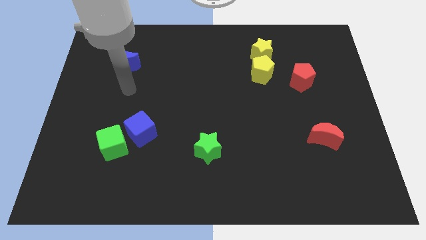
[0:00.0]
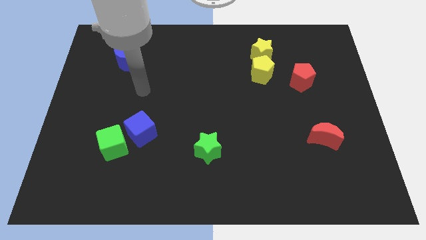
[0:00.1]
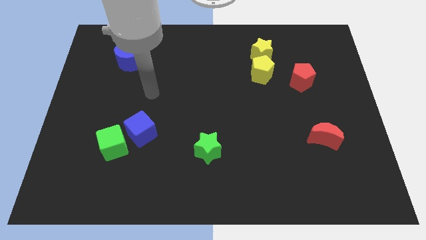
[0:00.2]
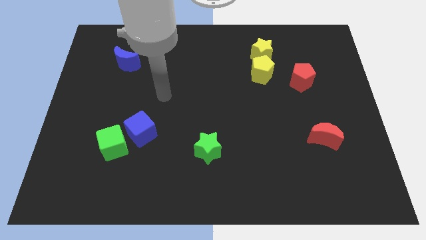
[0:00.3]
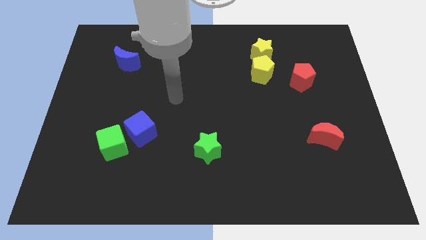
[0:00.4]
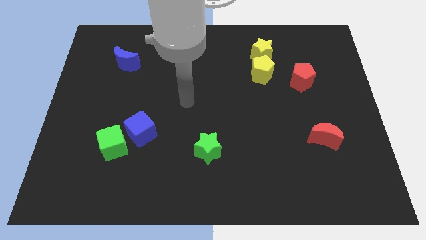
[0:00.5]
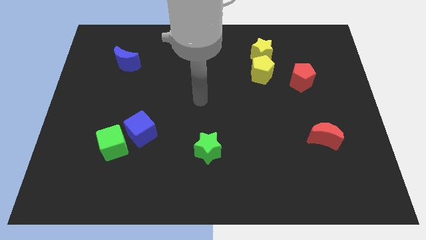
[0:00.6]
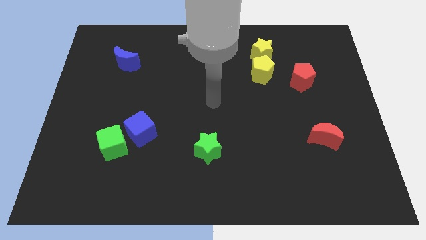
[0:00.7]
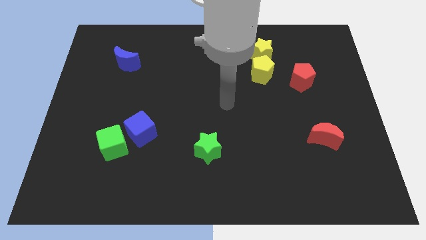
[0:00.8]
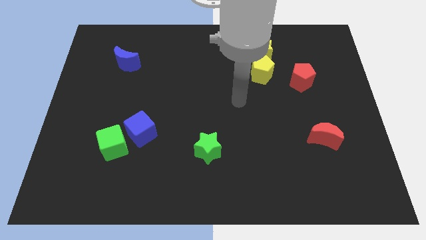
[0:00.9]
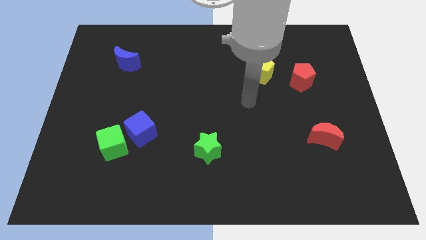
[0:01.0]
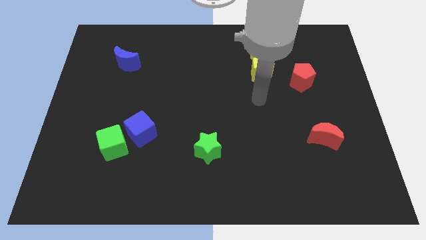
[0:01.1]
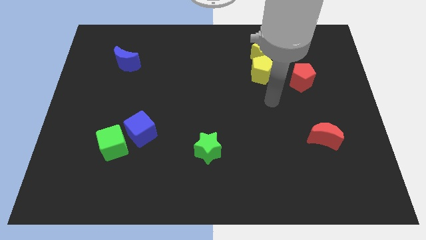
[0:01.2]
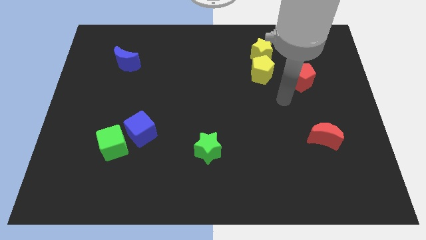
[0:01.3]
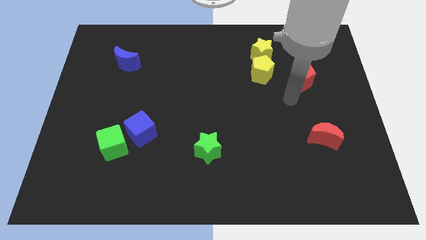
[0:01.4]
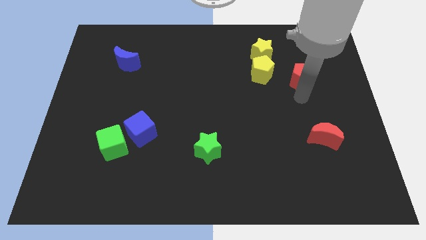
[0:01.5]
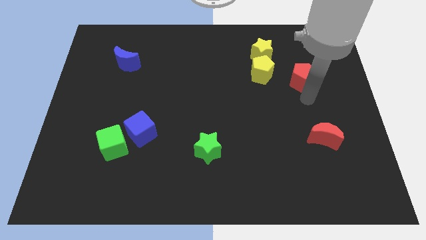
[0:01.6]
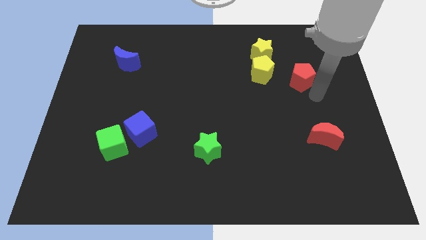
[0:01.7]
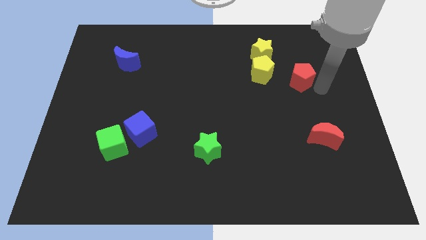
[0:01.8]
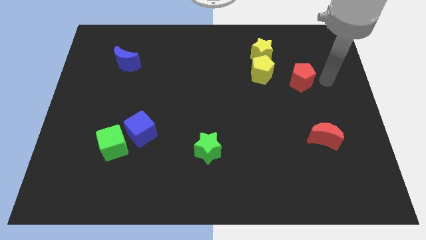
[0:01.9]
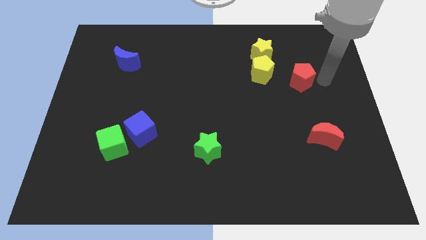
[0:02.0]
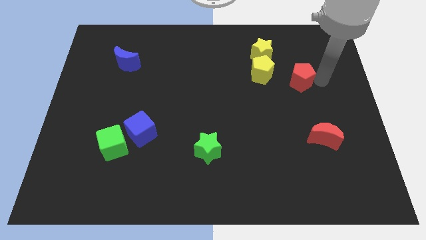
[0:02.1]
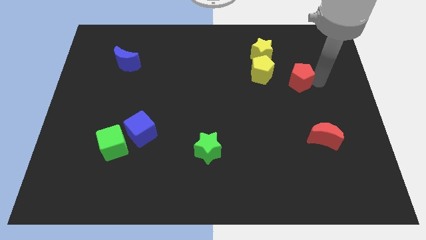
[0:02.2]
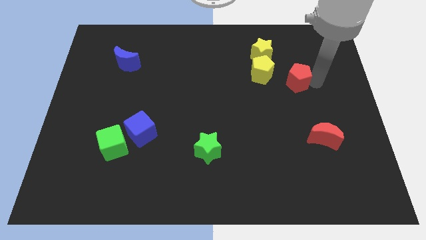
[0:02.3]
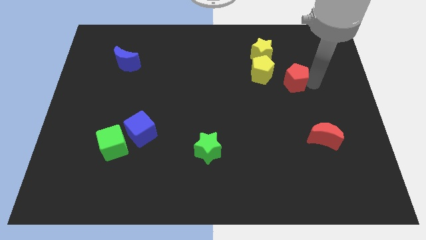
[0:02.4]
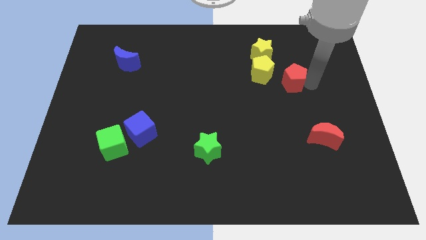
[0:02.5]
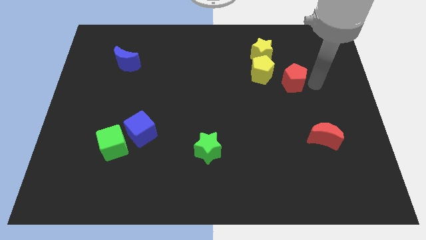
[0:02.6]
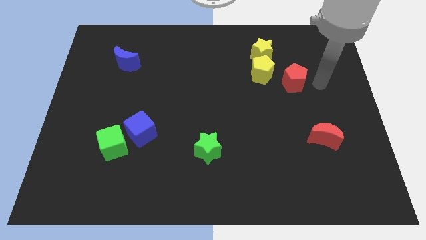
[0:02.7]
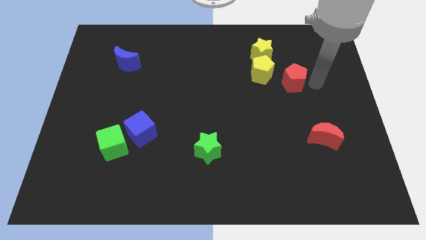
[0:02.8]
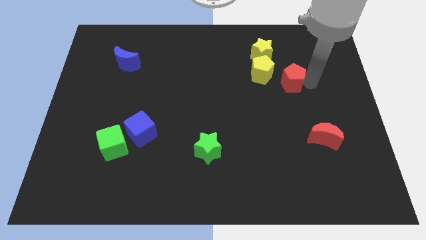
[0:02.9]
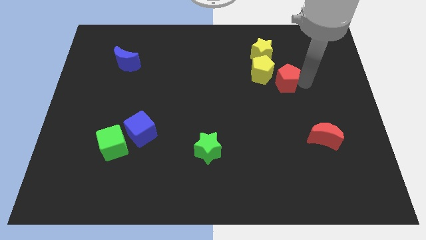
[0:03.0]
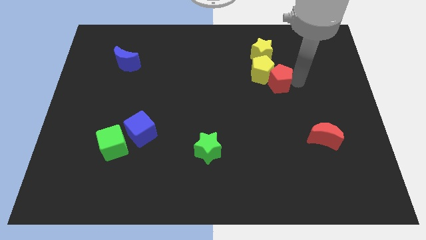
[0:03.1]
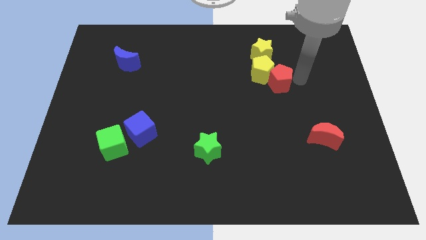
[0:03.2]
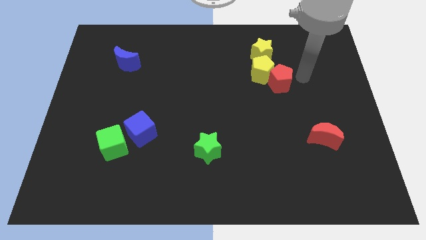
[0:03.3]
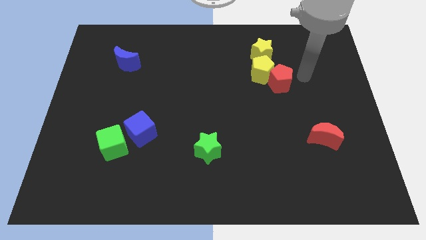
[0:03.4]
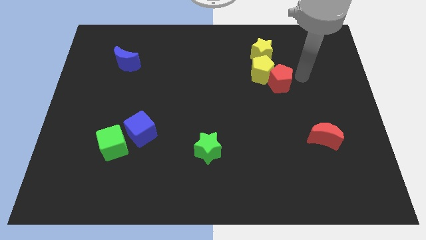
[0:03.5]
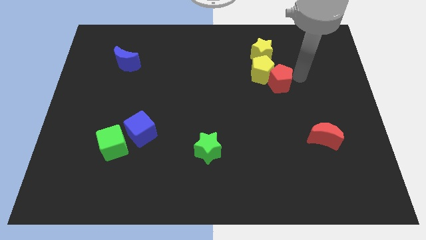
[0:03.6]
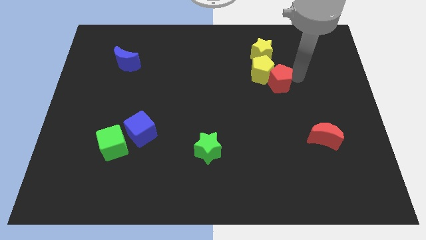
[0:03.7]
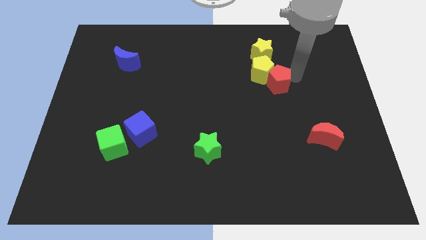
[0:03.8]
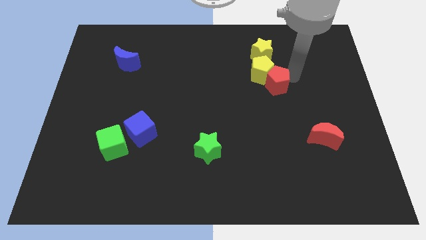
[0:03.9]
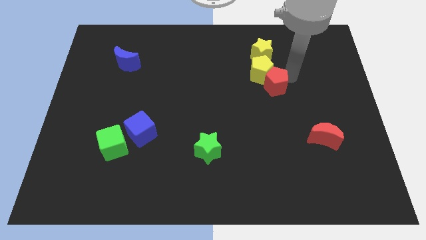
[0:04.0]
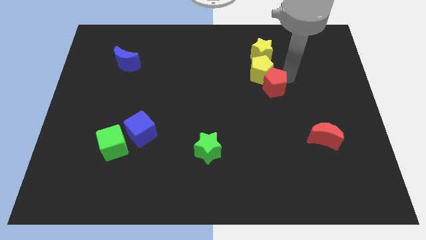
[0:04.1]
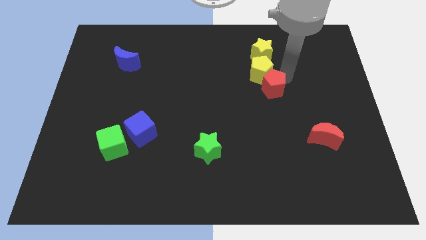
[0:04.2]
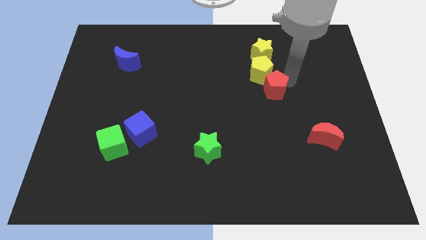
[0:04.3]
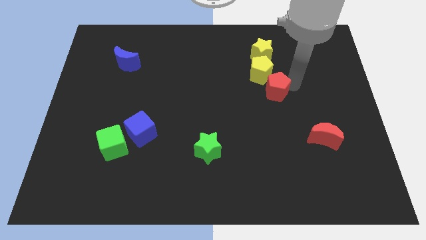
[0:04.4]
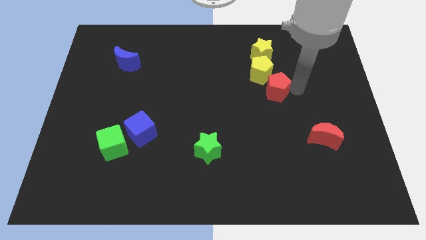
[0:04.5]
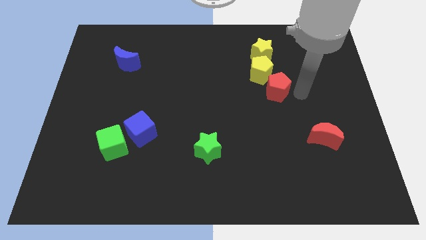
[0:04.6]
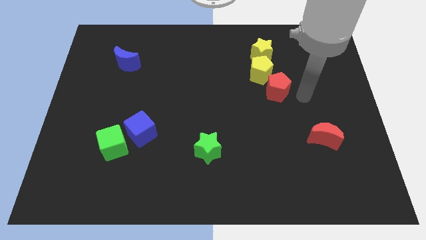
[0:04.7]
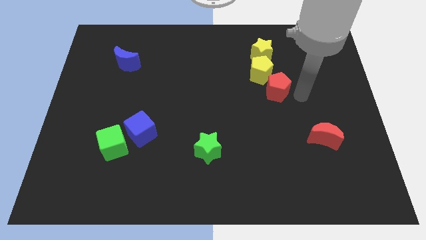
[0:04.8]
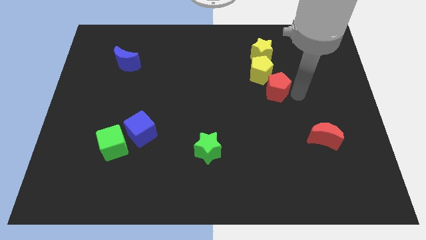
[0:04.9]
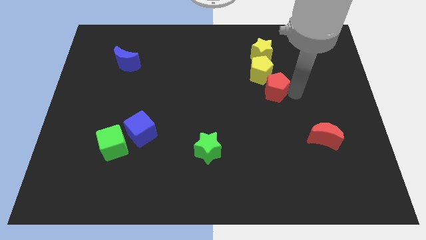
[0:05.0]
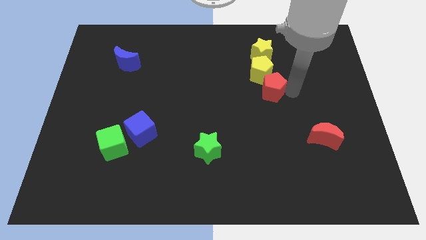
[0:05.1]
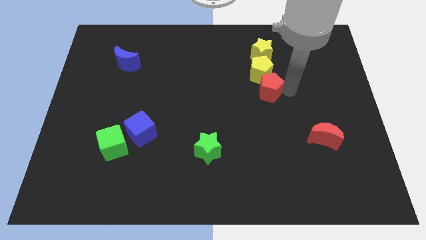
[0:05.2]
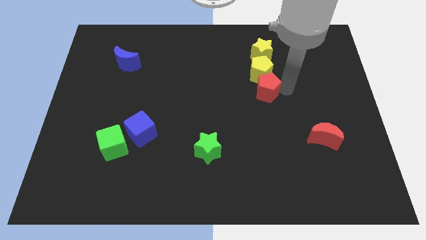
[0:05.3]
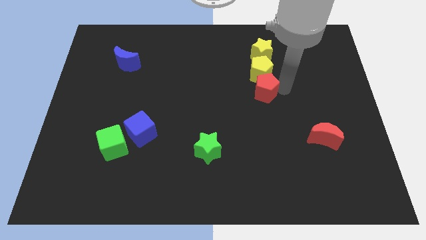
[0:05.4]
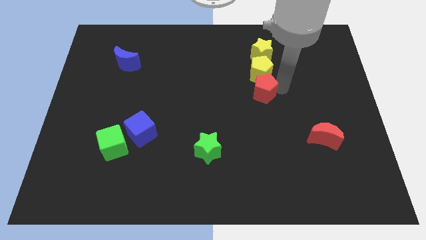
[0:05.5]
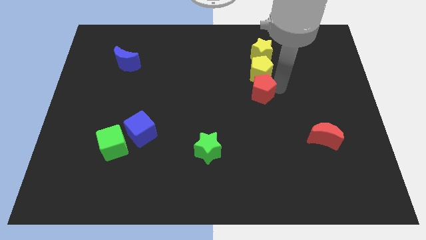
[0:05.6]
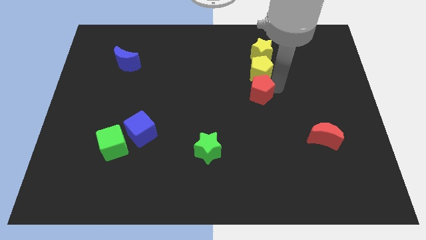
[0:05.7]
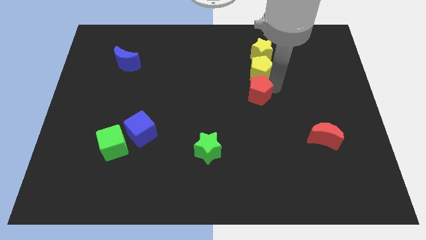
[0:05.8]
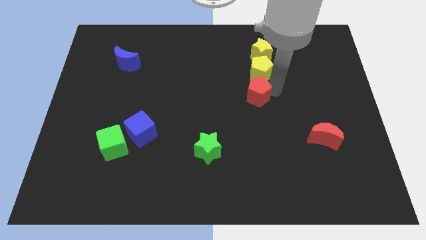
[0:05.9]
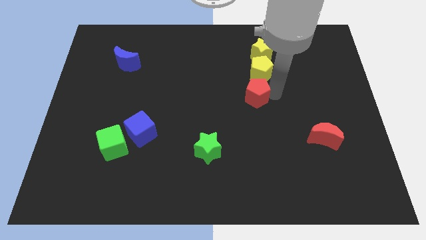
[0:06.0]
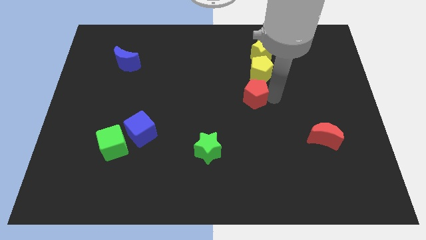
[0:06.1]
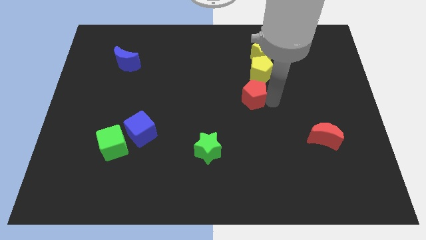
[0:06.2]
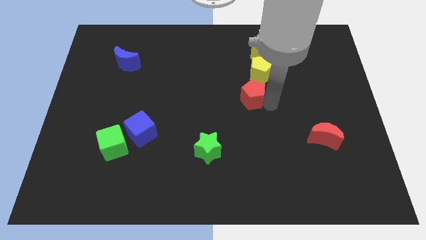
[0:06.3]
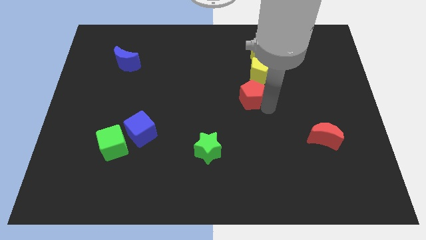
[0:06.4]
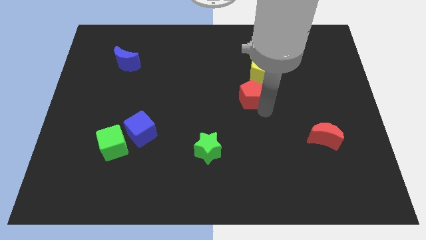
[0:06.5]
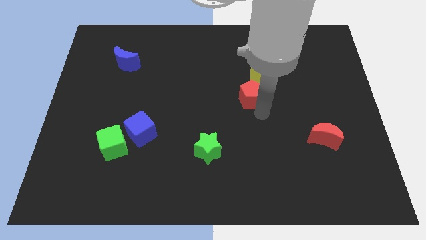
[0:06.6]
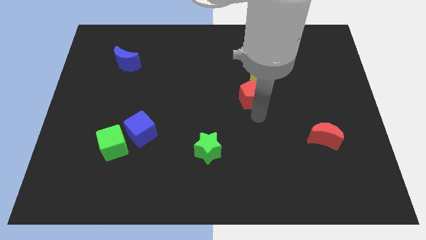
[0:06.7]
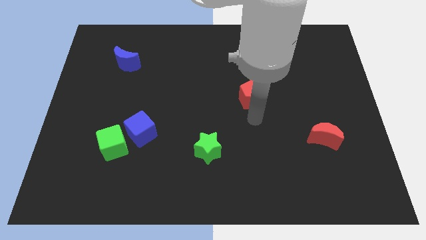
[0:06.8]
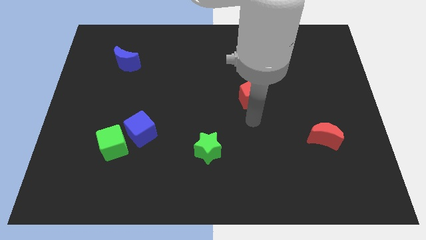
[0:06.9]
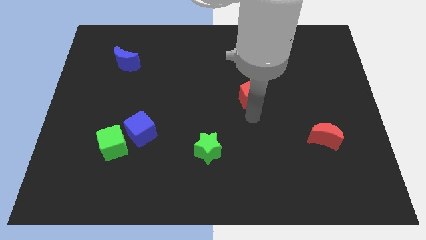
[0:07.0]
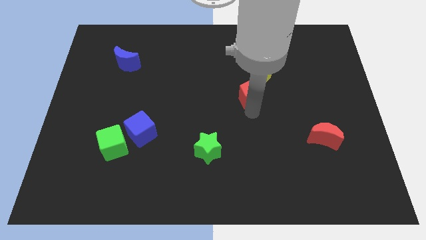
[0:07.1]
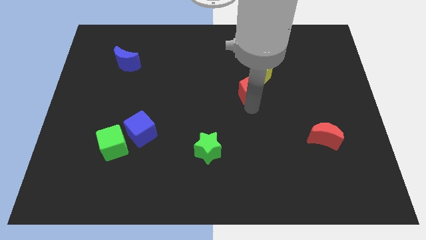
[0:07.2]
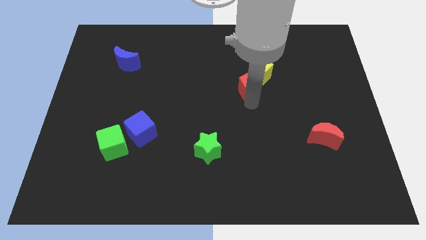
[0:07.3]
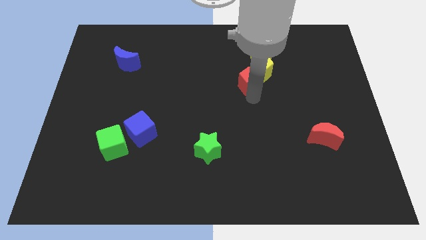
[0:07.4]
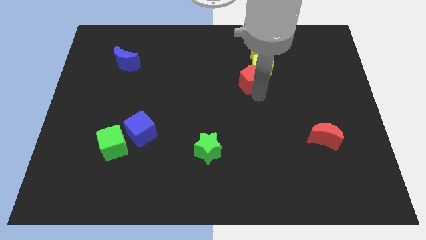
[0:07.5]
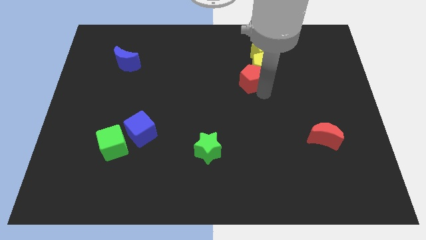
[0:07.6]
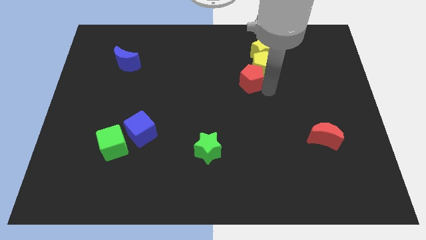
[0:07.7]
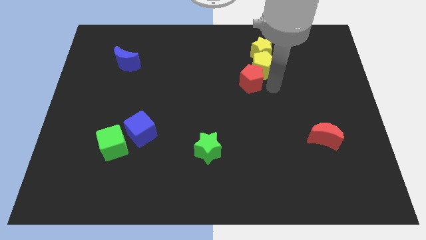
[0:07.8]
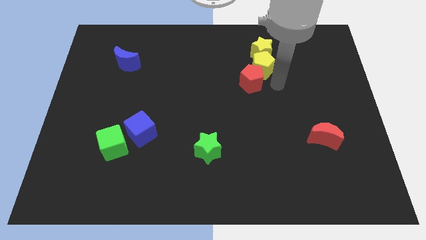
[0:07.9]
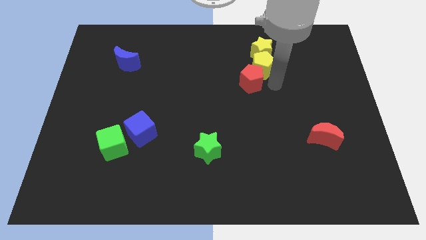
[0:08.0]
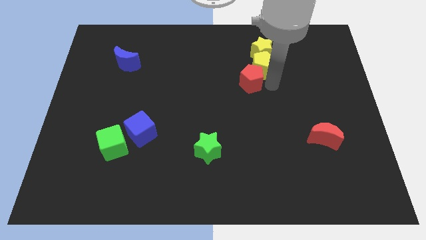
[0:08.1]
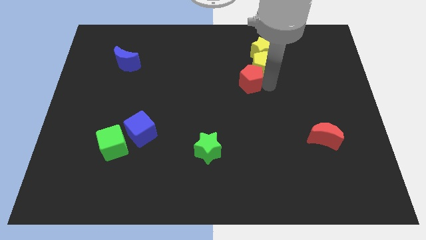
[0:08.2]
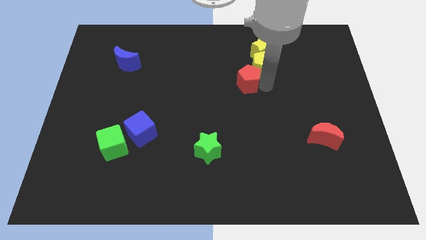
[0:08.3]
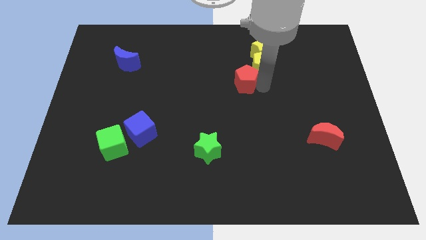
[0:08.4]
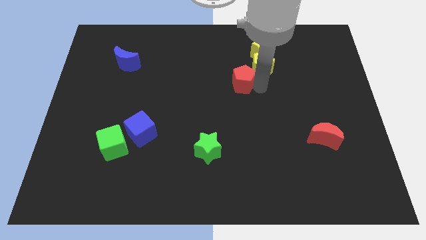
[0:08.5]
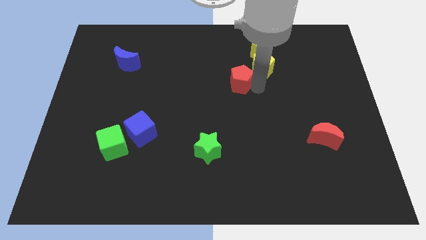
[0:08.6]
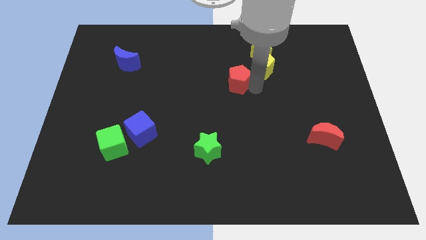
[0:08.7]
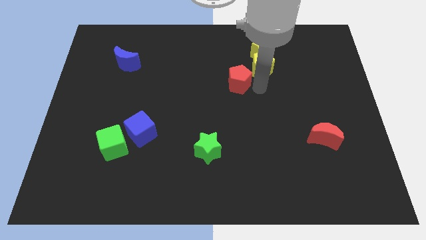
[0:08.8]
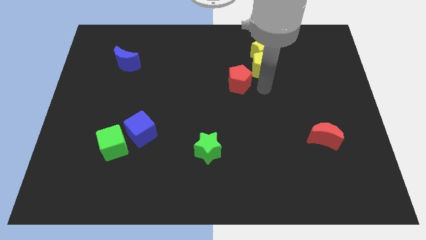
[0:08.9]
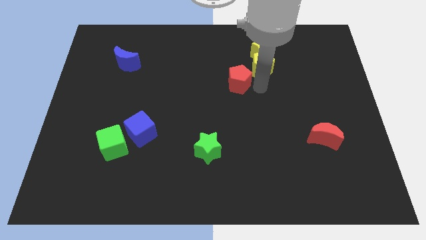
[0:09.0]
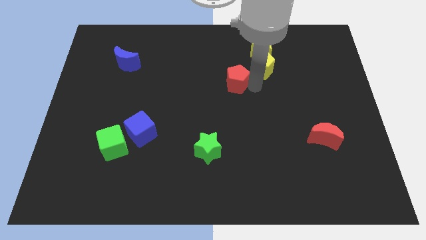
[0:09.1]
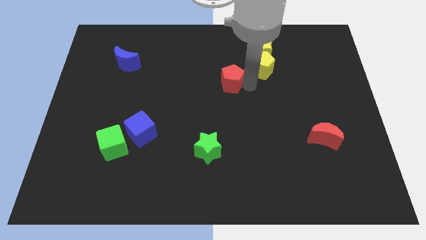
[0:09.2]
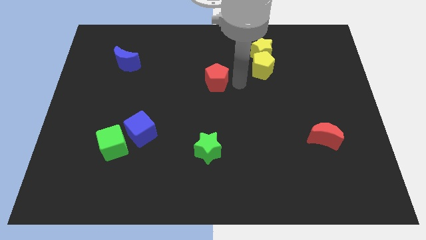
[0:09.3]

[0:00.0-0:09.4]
push the red pentagon to the left
